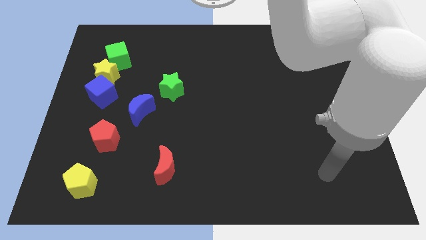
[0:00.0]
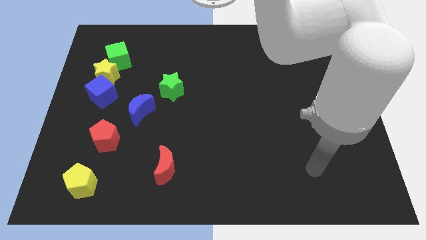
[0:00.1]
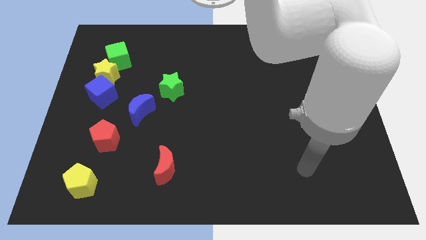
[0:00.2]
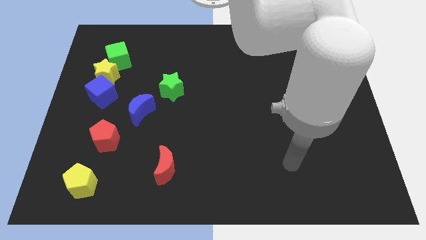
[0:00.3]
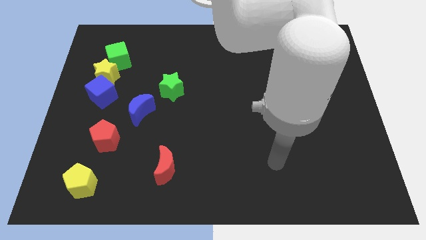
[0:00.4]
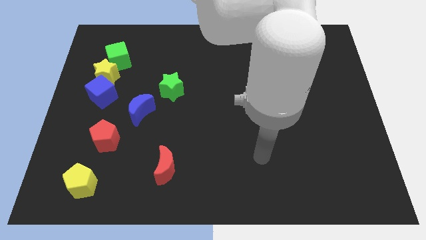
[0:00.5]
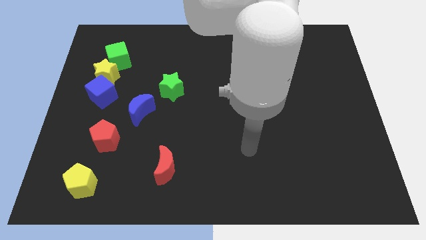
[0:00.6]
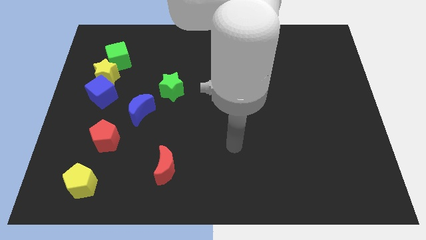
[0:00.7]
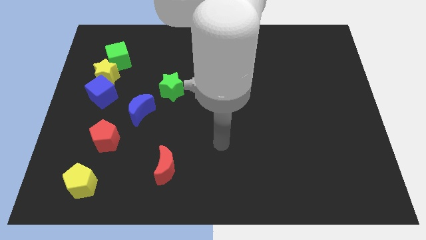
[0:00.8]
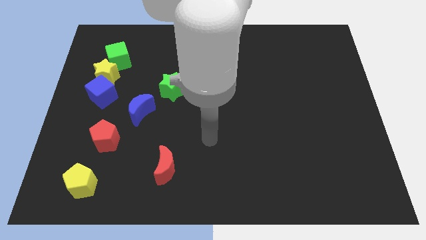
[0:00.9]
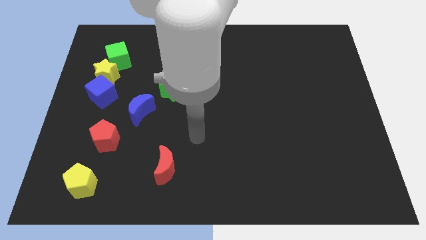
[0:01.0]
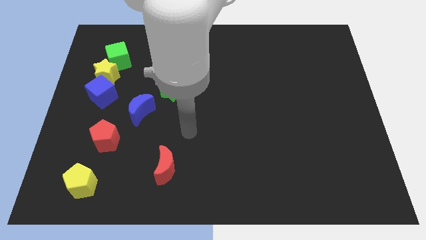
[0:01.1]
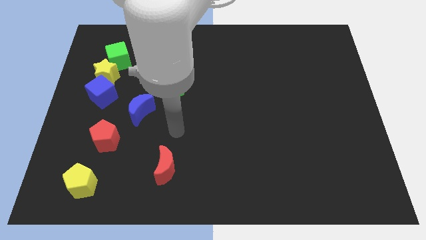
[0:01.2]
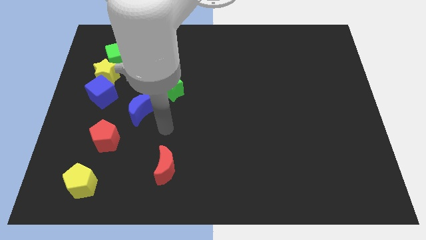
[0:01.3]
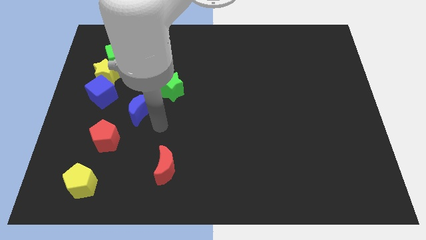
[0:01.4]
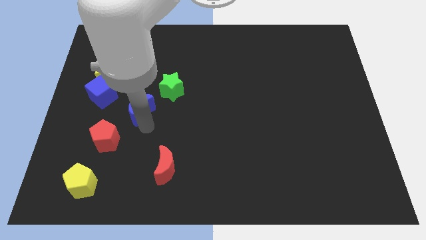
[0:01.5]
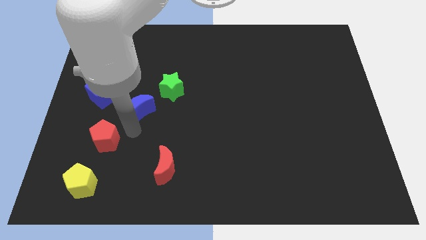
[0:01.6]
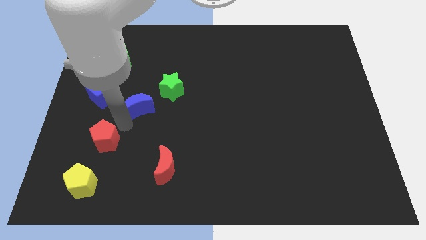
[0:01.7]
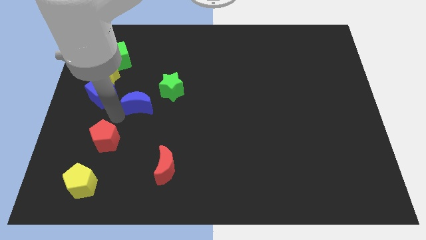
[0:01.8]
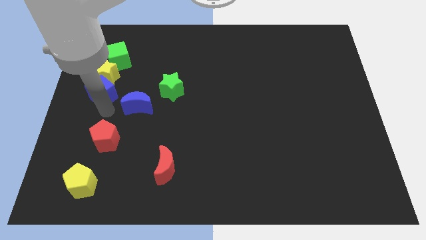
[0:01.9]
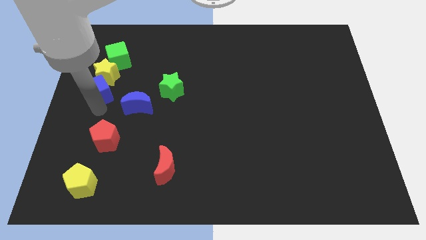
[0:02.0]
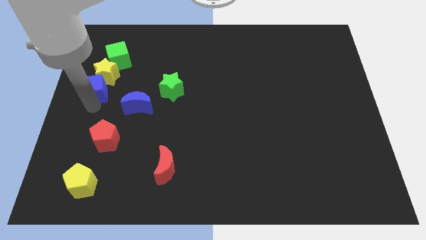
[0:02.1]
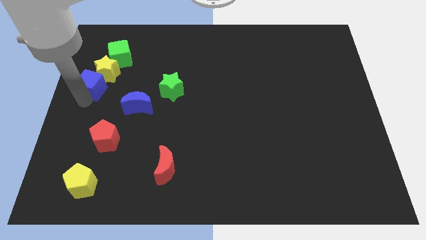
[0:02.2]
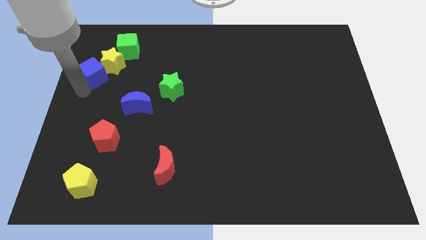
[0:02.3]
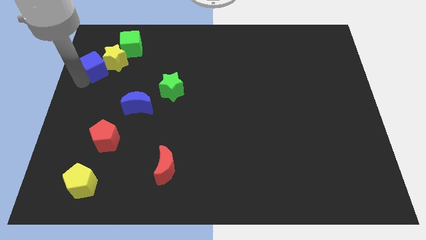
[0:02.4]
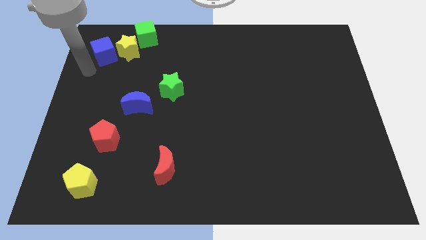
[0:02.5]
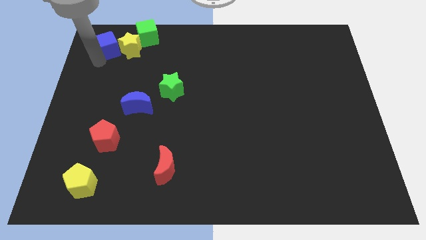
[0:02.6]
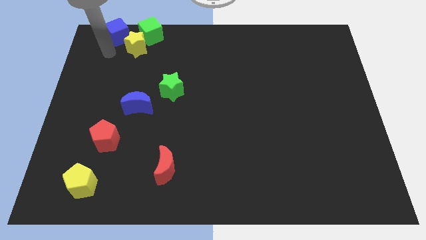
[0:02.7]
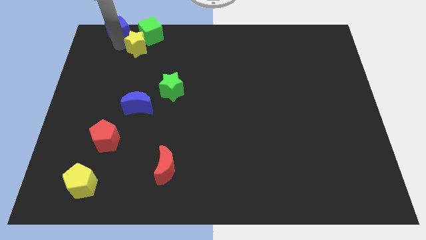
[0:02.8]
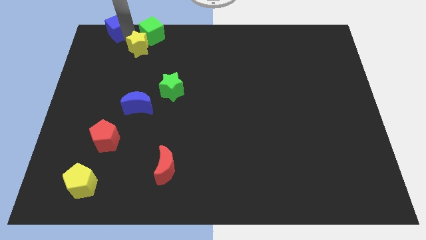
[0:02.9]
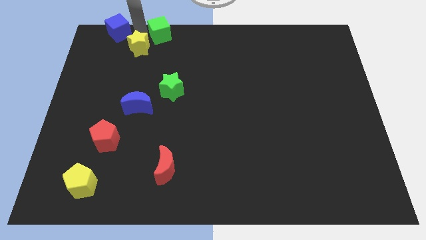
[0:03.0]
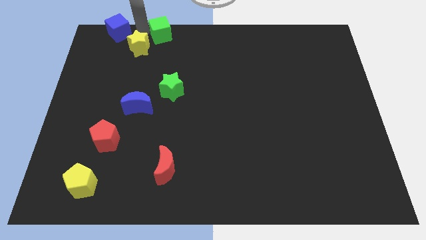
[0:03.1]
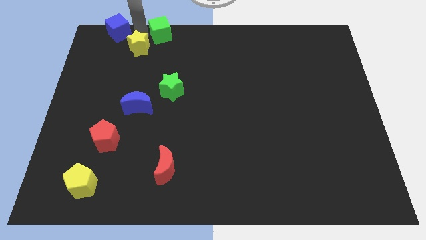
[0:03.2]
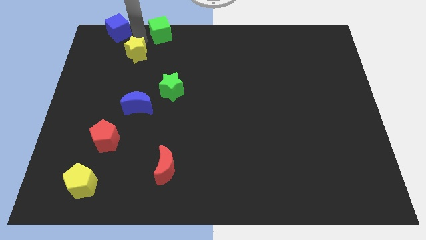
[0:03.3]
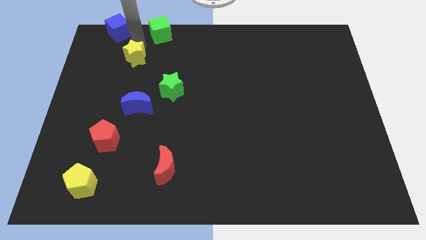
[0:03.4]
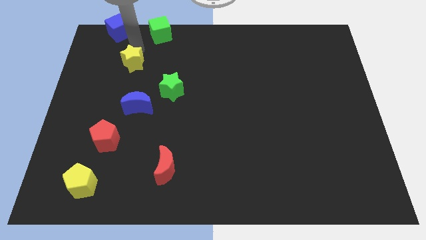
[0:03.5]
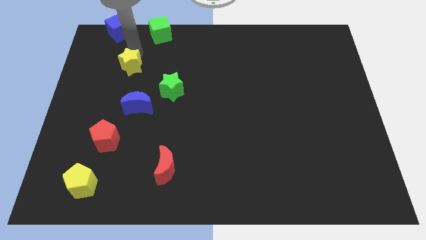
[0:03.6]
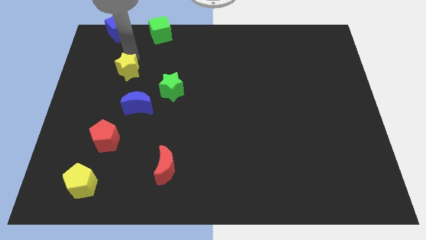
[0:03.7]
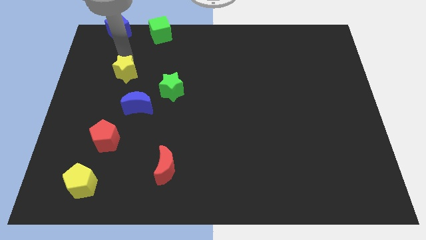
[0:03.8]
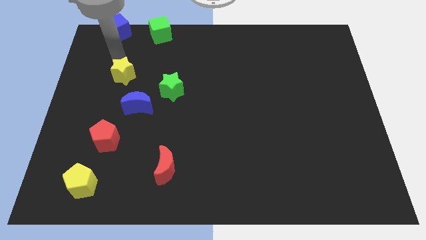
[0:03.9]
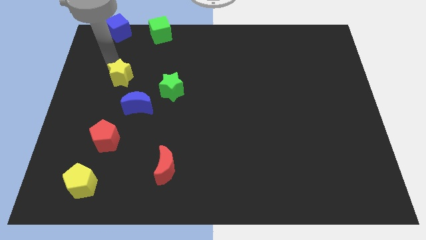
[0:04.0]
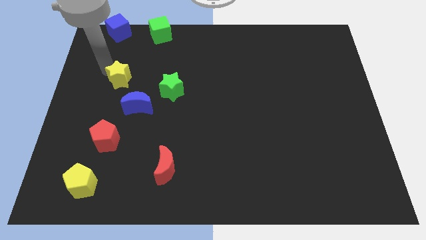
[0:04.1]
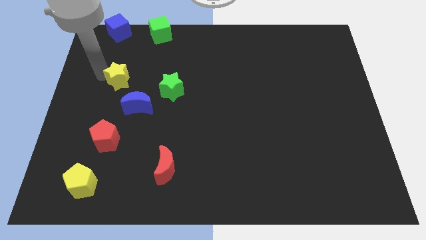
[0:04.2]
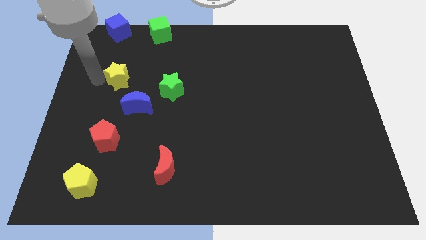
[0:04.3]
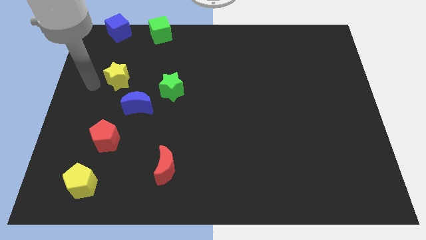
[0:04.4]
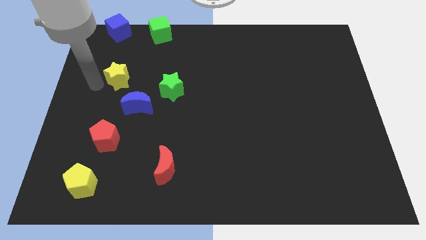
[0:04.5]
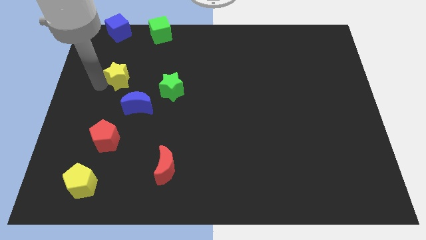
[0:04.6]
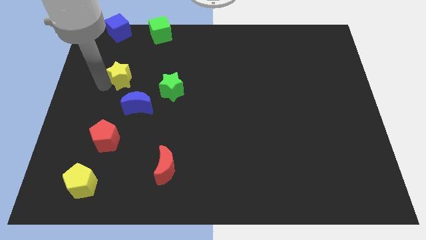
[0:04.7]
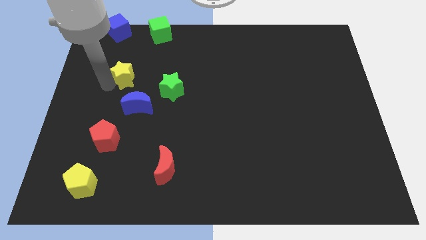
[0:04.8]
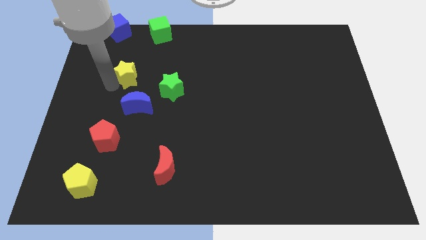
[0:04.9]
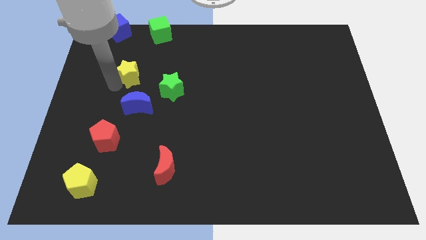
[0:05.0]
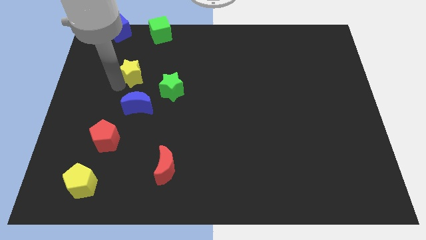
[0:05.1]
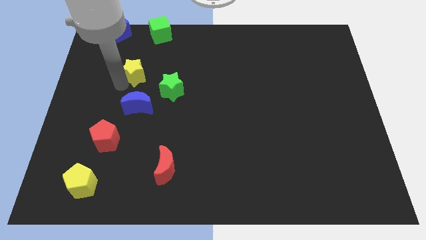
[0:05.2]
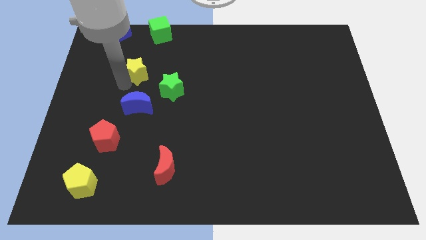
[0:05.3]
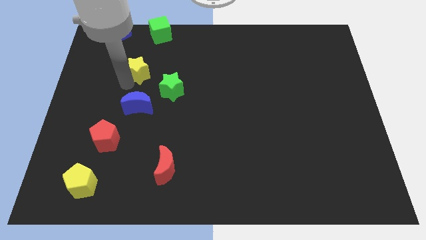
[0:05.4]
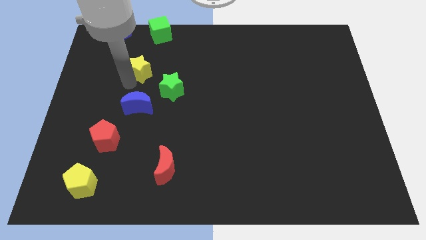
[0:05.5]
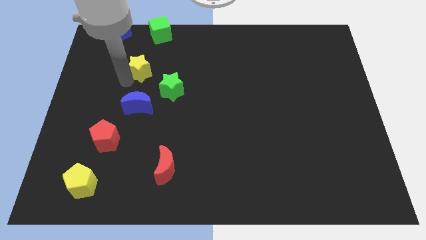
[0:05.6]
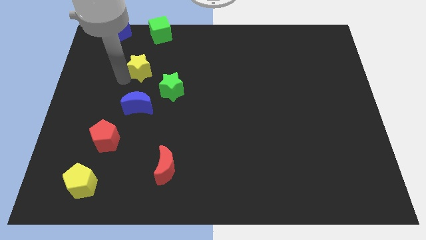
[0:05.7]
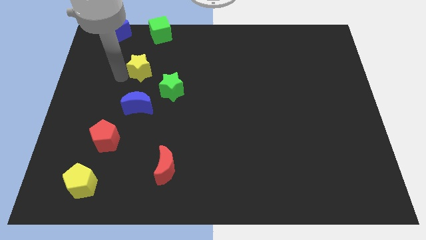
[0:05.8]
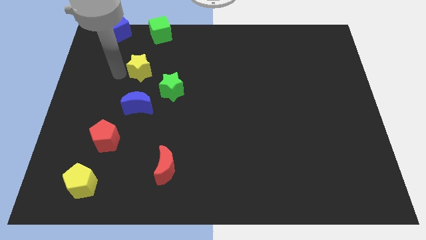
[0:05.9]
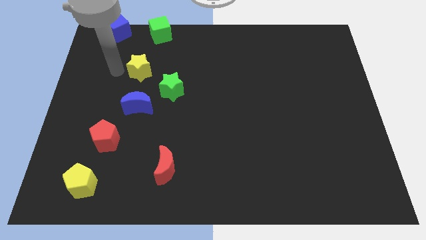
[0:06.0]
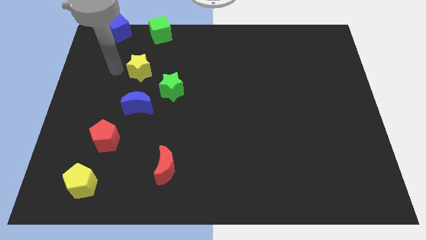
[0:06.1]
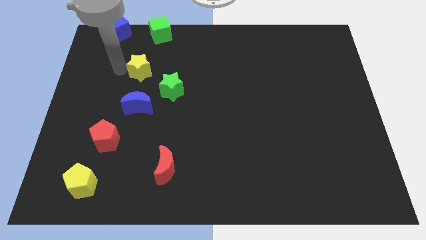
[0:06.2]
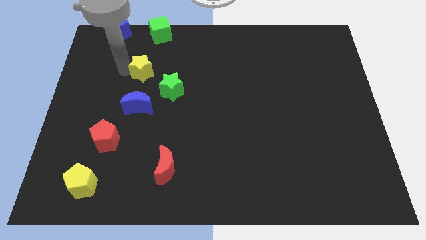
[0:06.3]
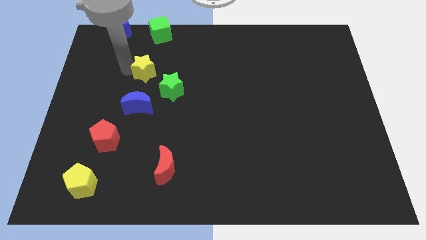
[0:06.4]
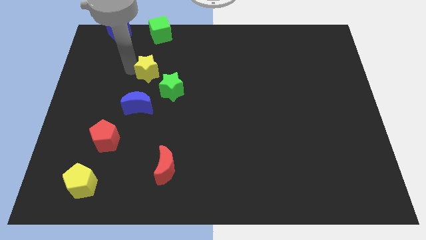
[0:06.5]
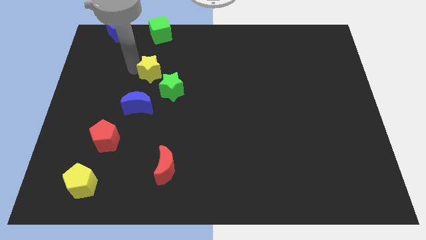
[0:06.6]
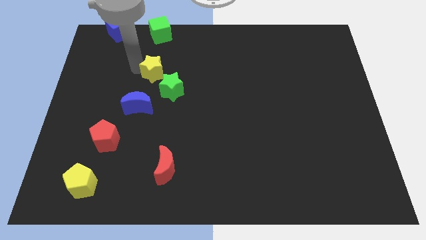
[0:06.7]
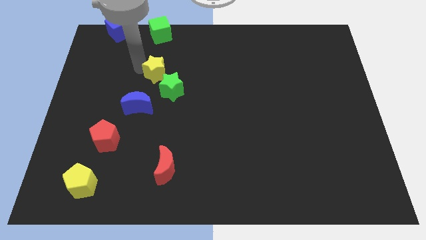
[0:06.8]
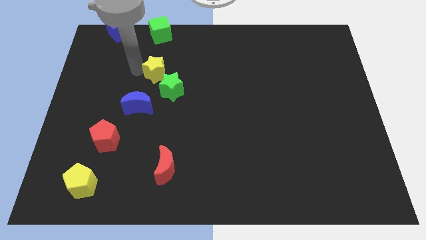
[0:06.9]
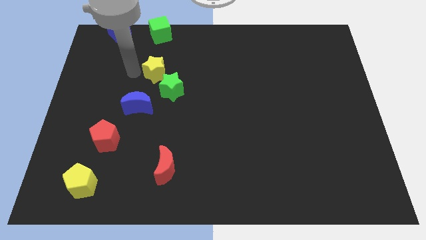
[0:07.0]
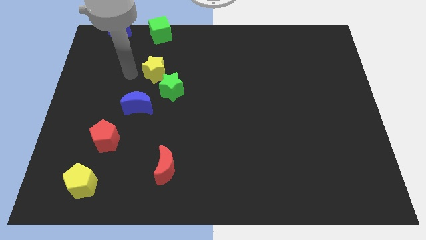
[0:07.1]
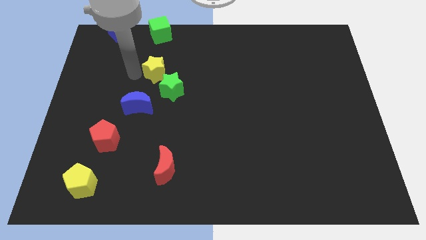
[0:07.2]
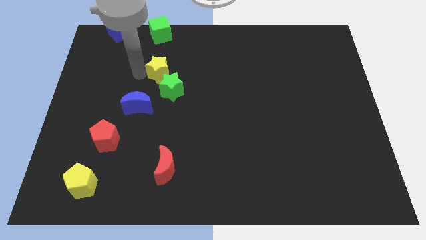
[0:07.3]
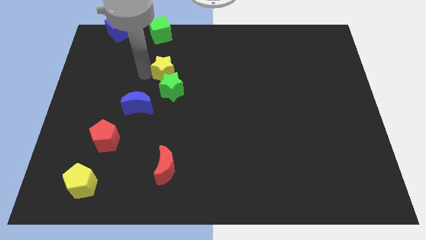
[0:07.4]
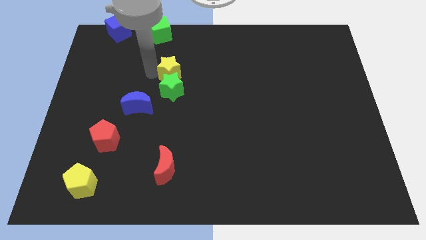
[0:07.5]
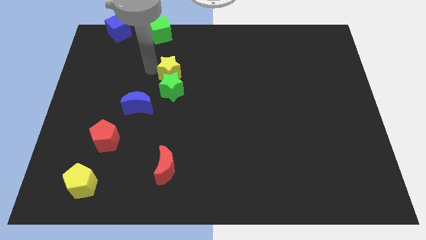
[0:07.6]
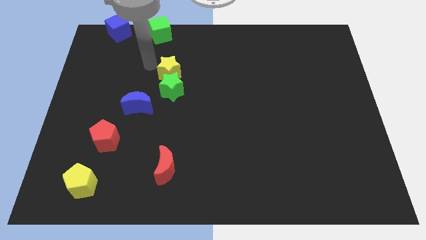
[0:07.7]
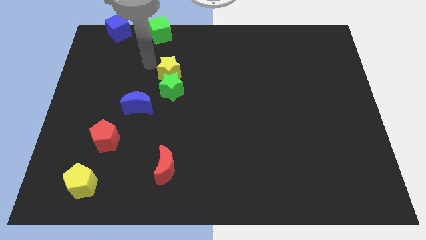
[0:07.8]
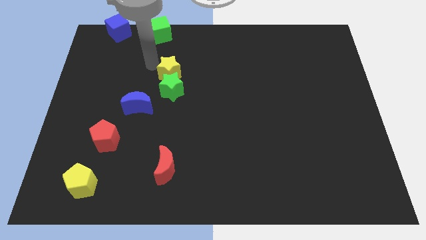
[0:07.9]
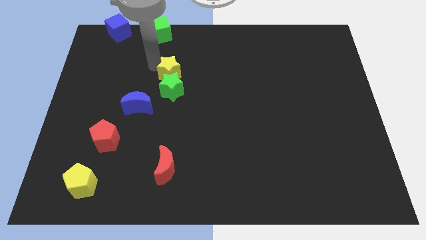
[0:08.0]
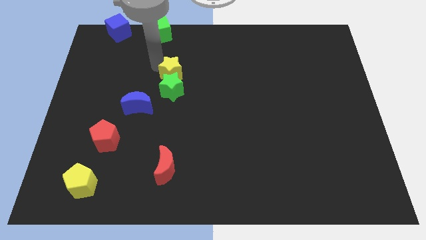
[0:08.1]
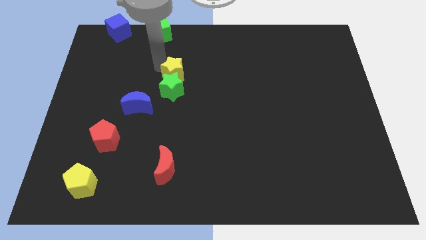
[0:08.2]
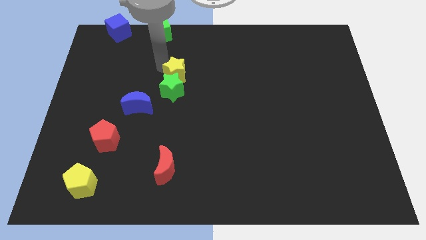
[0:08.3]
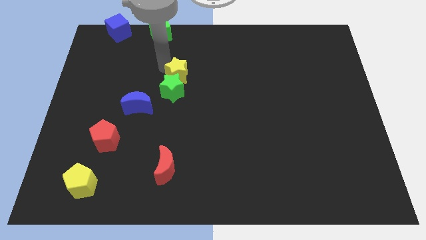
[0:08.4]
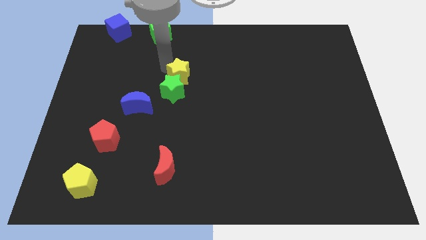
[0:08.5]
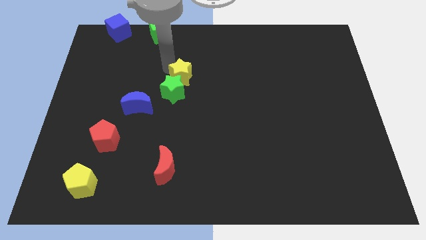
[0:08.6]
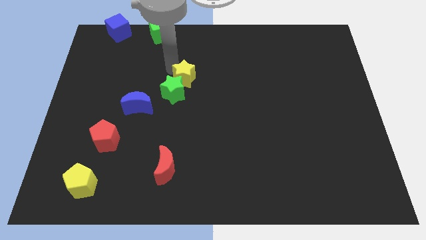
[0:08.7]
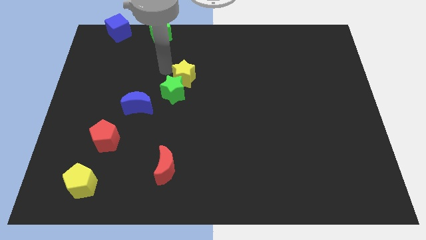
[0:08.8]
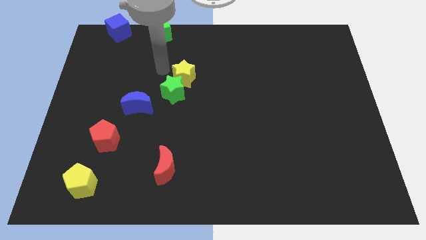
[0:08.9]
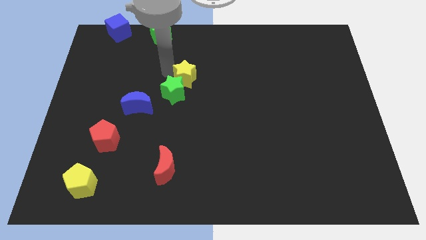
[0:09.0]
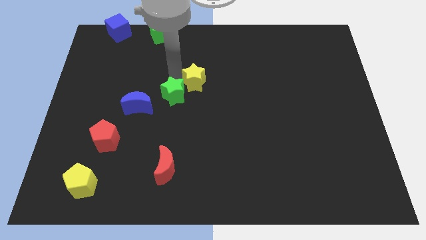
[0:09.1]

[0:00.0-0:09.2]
push the yellow star to the right of the green star
